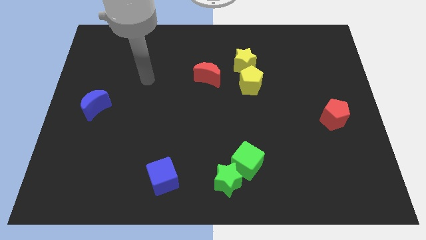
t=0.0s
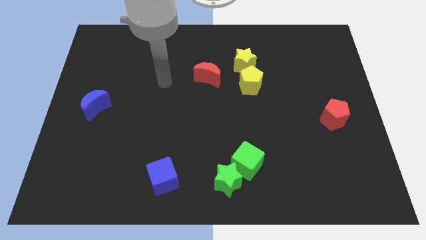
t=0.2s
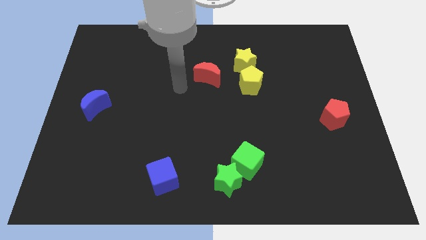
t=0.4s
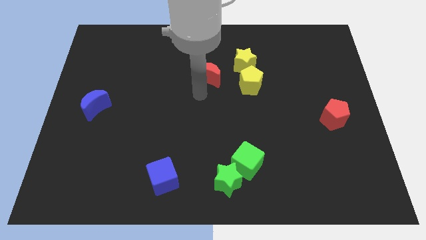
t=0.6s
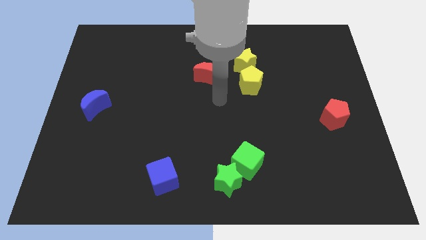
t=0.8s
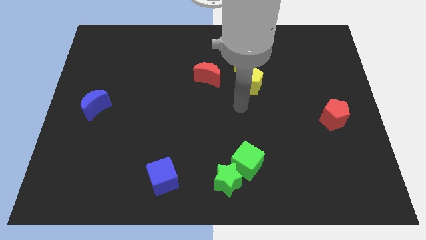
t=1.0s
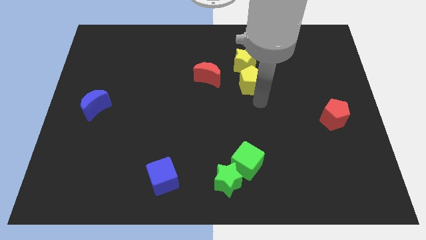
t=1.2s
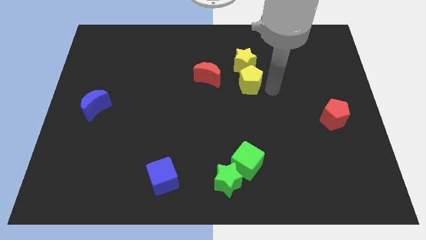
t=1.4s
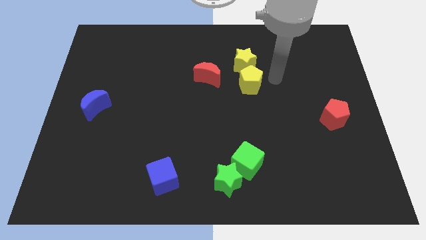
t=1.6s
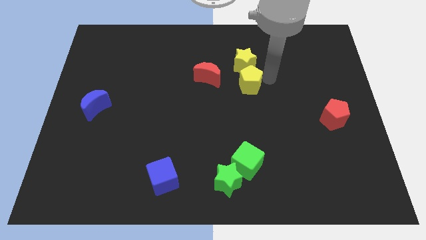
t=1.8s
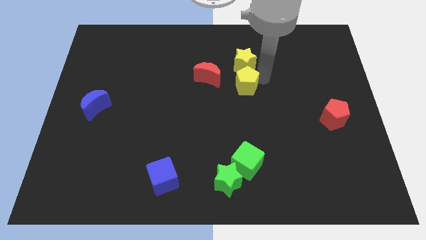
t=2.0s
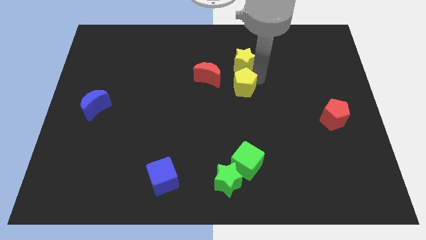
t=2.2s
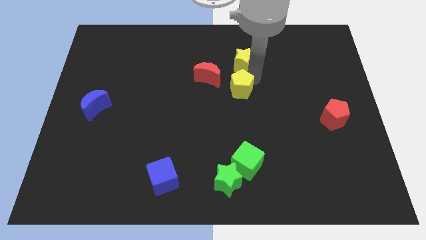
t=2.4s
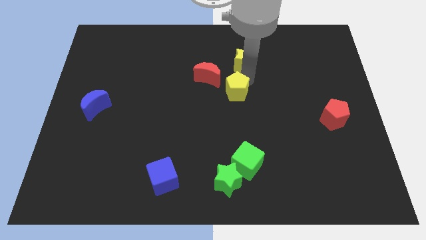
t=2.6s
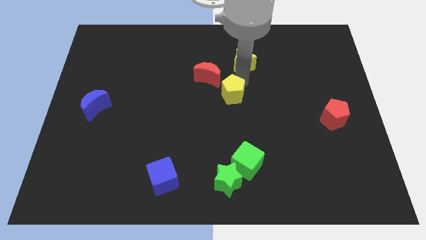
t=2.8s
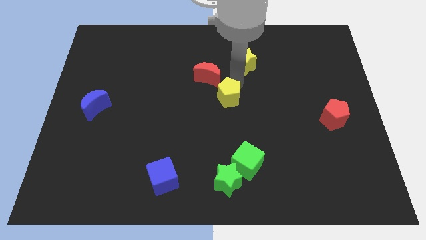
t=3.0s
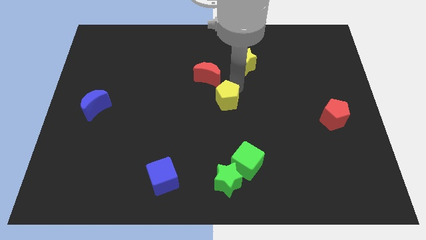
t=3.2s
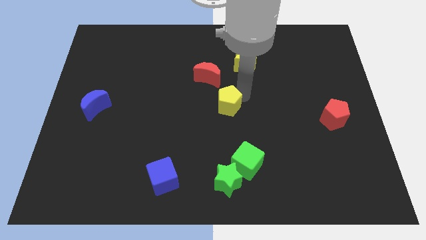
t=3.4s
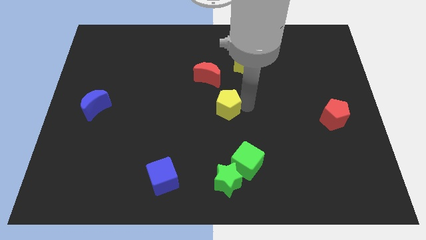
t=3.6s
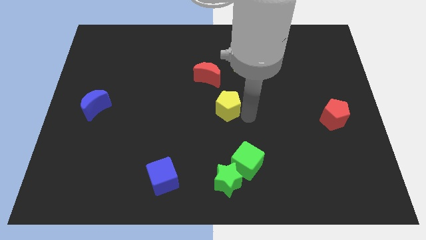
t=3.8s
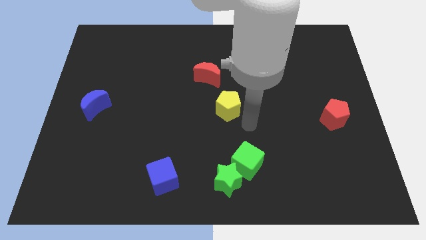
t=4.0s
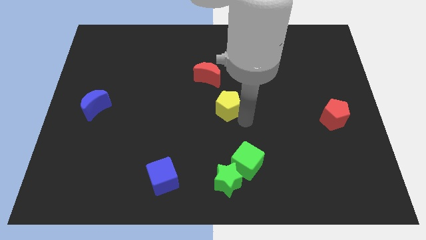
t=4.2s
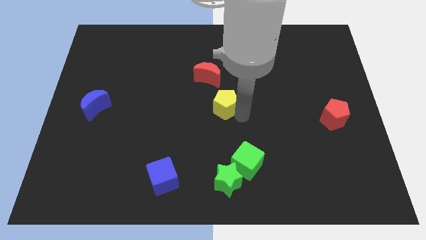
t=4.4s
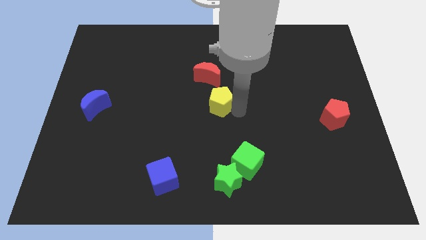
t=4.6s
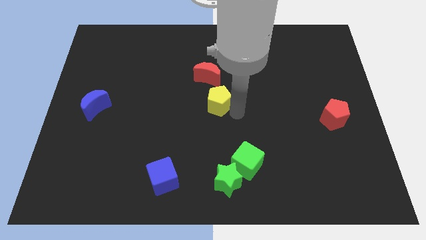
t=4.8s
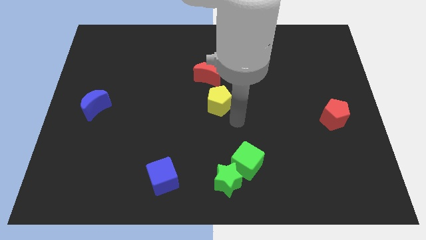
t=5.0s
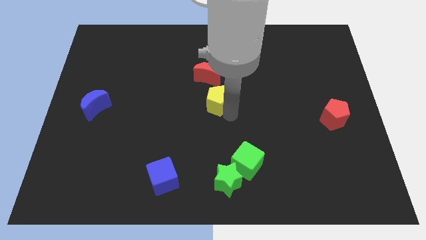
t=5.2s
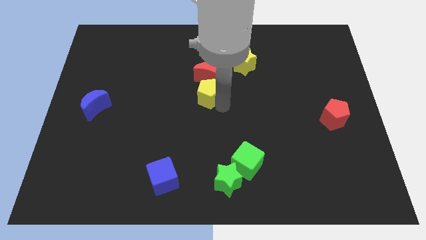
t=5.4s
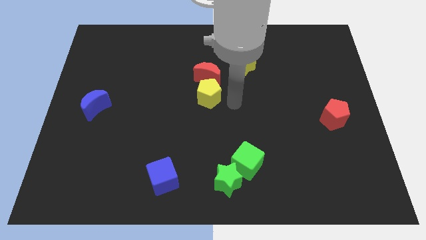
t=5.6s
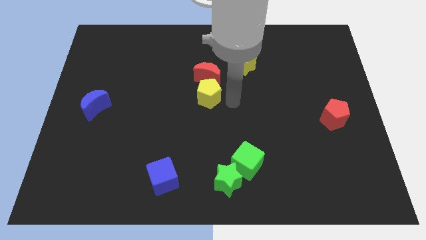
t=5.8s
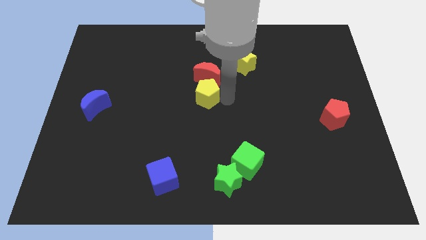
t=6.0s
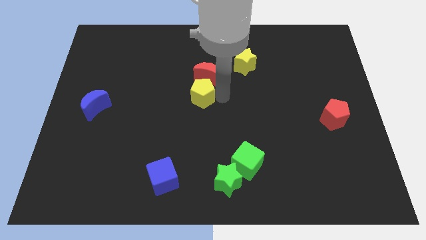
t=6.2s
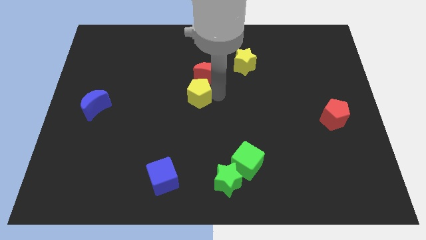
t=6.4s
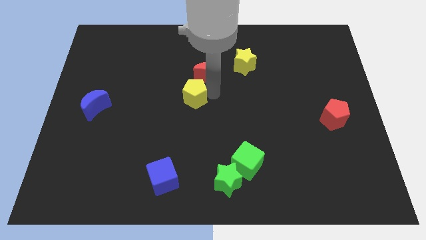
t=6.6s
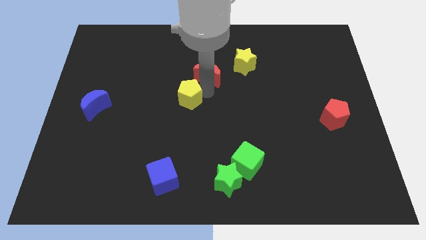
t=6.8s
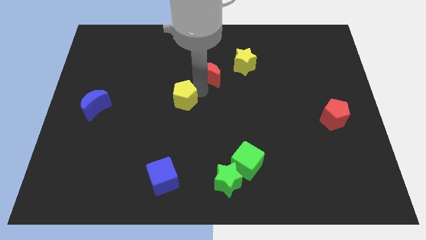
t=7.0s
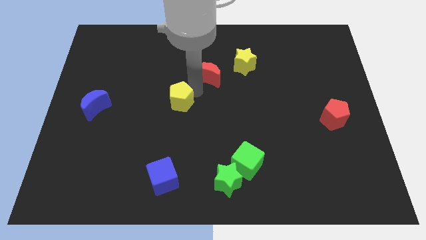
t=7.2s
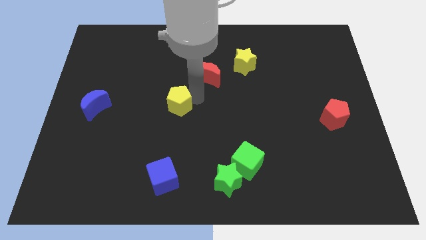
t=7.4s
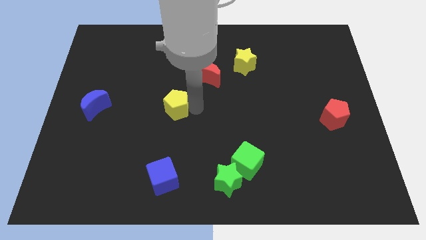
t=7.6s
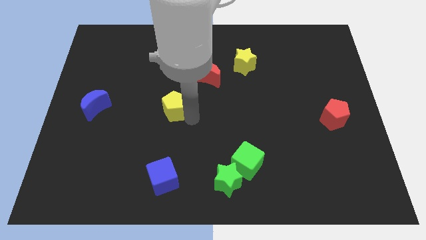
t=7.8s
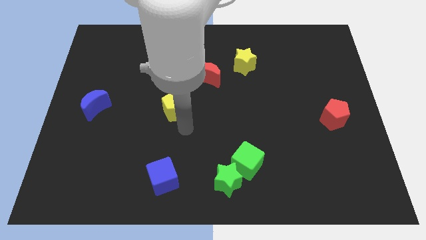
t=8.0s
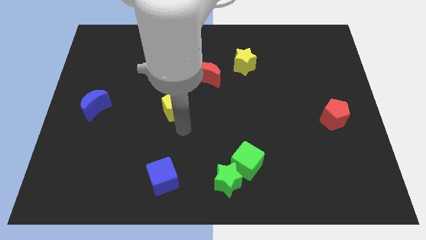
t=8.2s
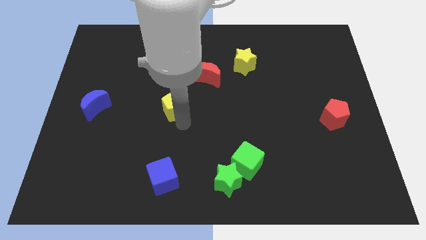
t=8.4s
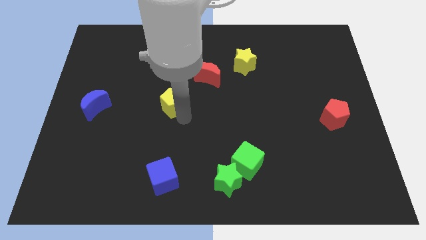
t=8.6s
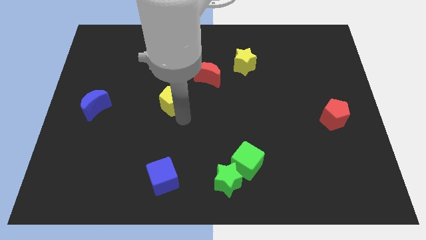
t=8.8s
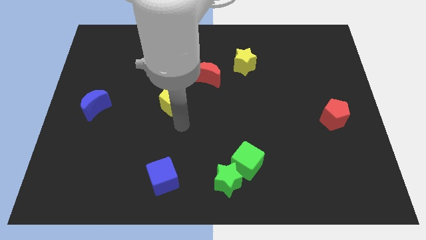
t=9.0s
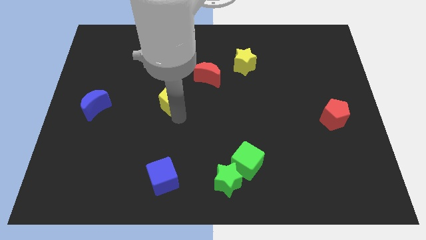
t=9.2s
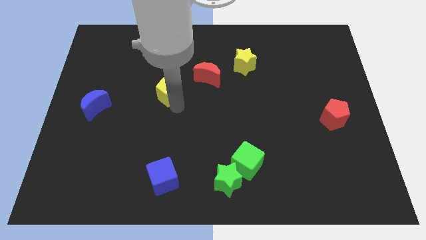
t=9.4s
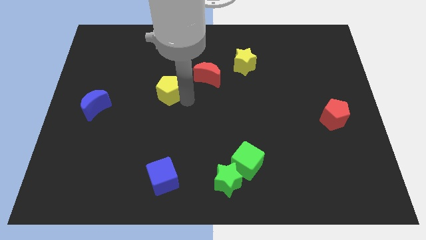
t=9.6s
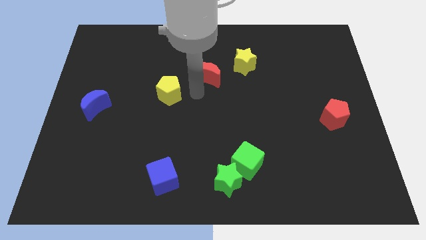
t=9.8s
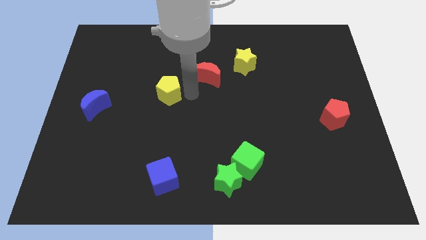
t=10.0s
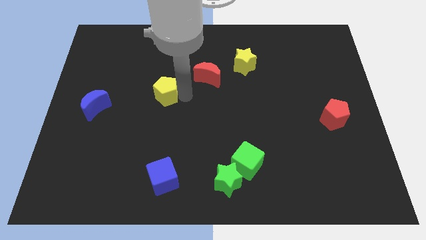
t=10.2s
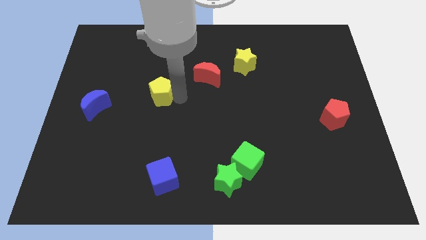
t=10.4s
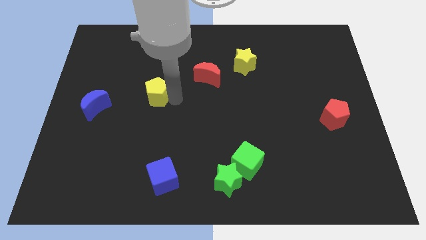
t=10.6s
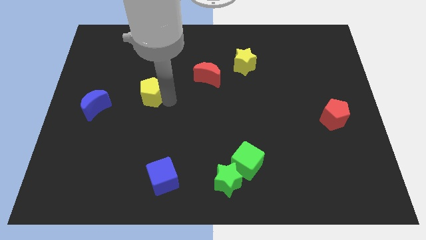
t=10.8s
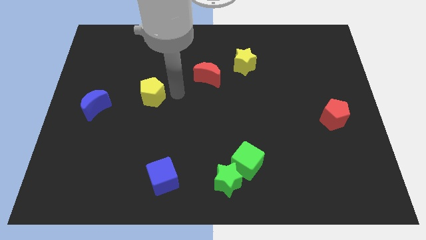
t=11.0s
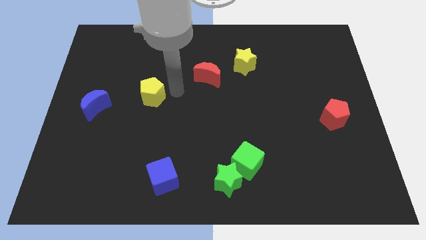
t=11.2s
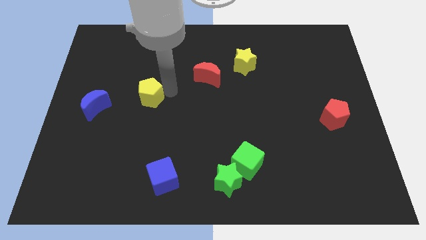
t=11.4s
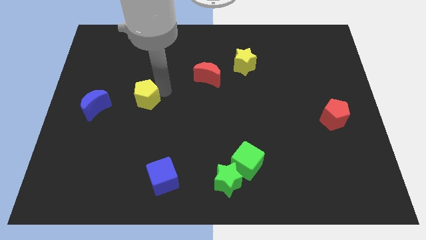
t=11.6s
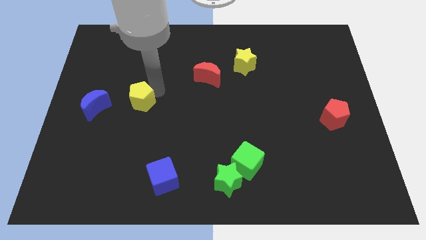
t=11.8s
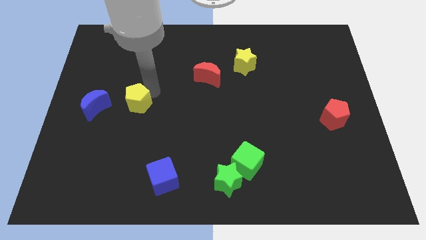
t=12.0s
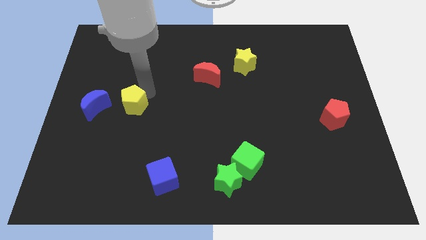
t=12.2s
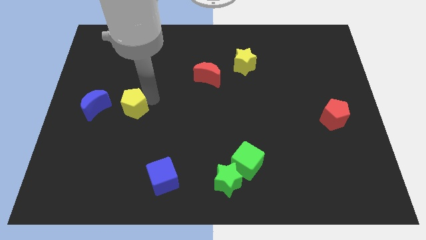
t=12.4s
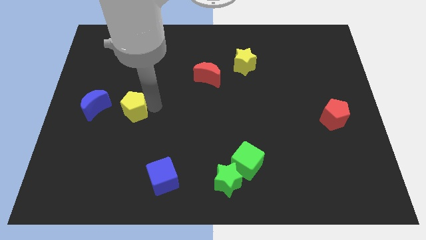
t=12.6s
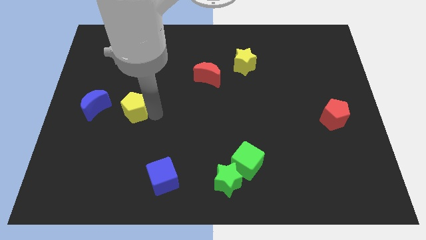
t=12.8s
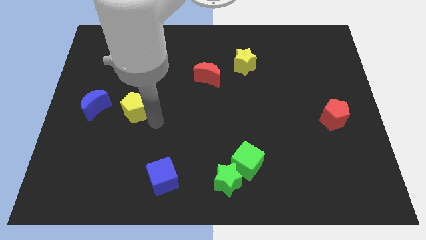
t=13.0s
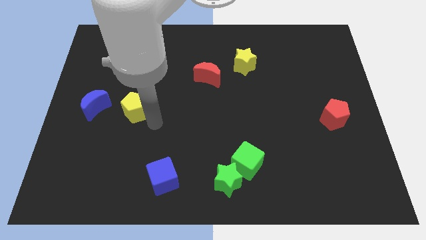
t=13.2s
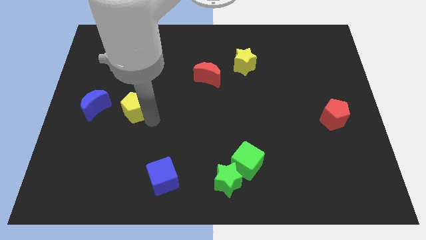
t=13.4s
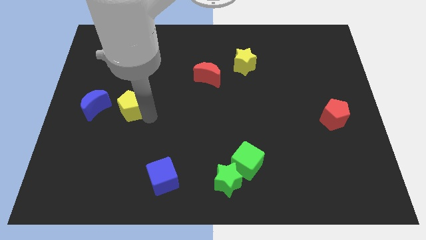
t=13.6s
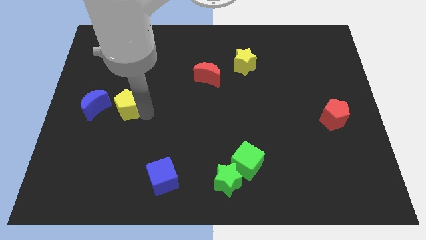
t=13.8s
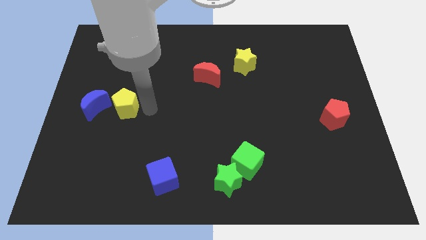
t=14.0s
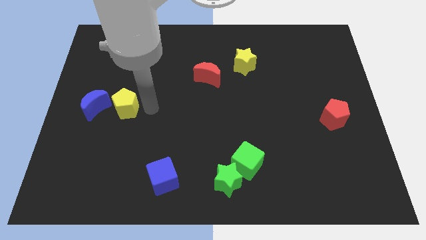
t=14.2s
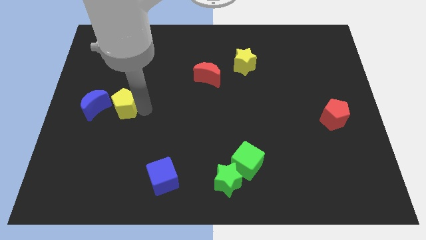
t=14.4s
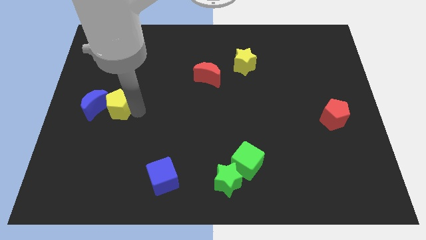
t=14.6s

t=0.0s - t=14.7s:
move the yellow pentagon close to the blue moon
